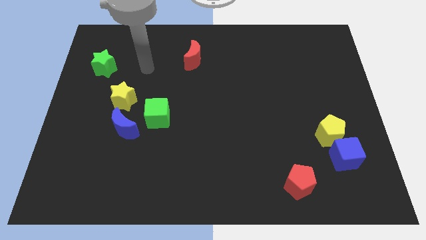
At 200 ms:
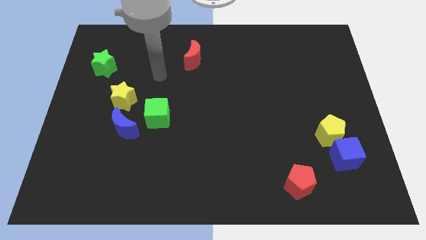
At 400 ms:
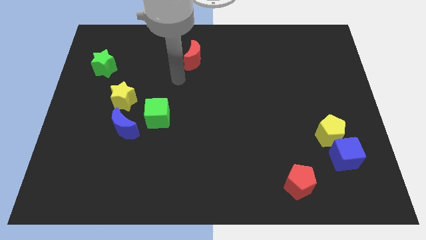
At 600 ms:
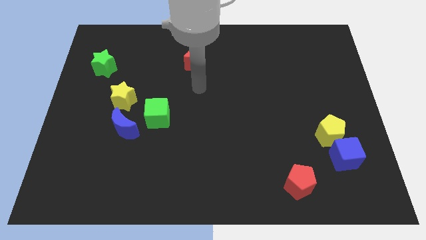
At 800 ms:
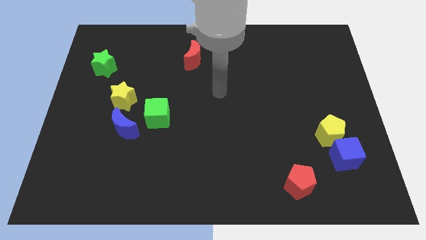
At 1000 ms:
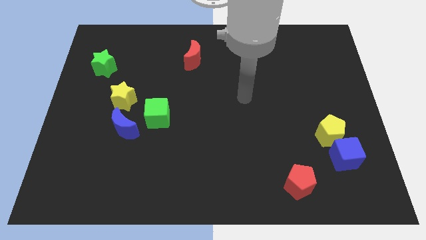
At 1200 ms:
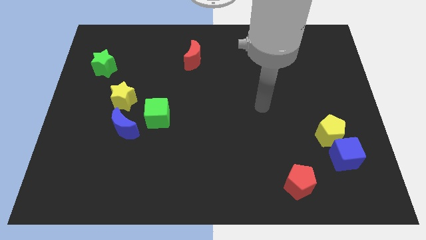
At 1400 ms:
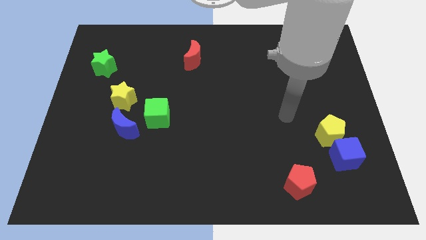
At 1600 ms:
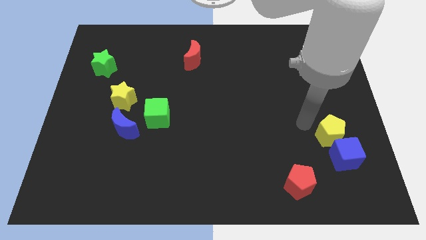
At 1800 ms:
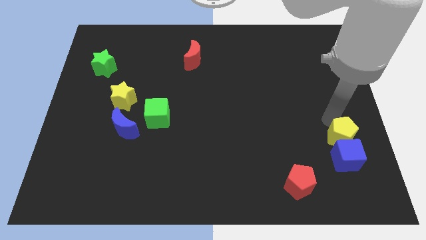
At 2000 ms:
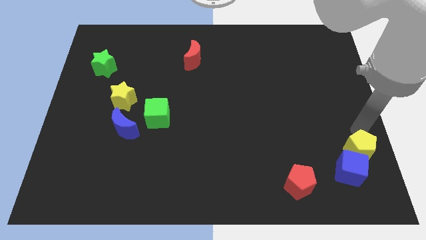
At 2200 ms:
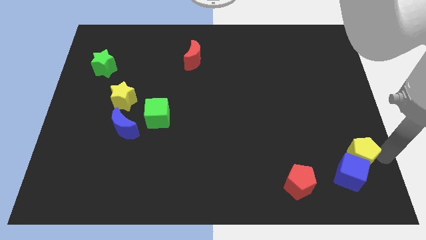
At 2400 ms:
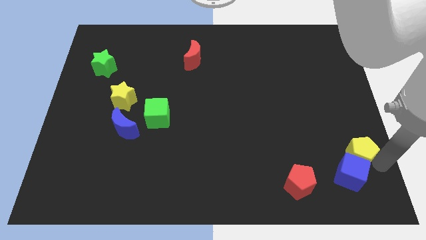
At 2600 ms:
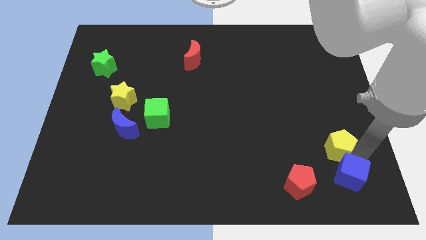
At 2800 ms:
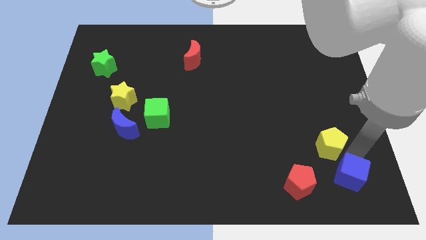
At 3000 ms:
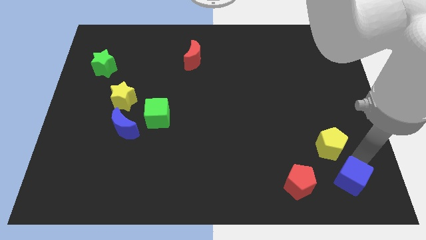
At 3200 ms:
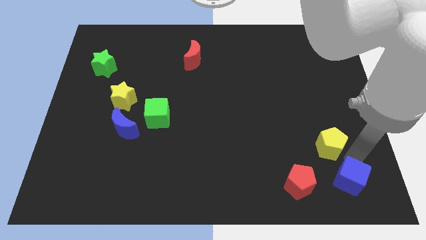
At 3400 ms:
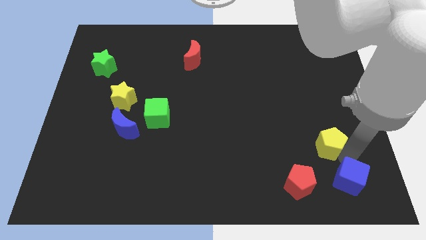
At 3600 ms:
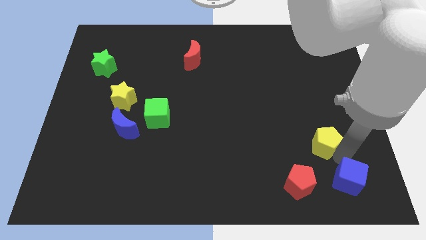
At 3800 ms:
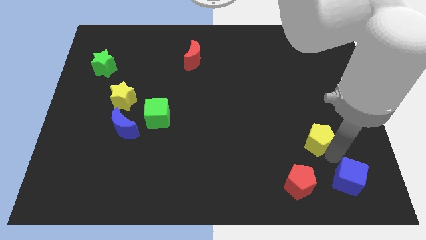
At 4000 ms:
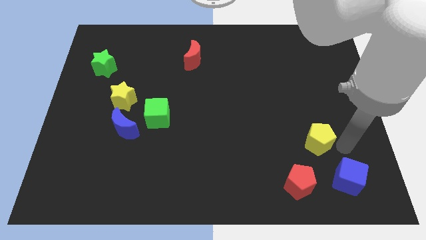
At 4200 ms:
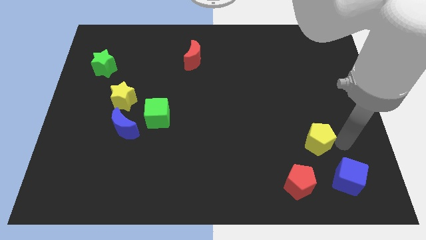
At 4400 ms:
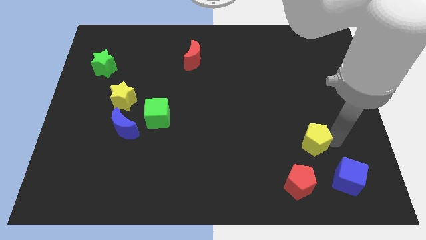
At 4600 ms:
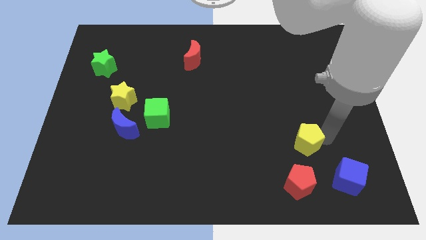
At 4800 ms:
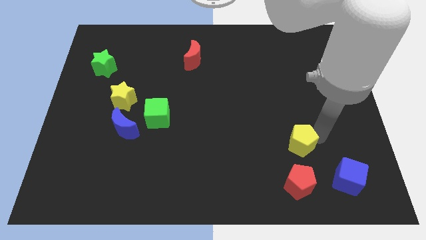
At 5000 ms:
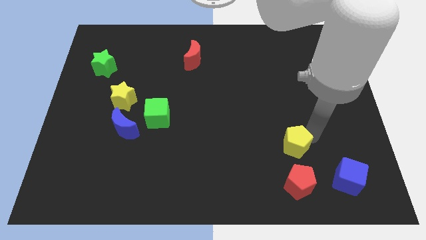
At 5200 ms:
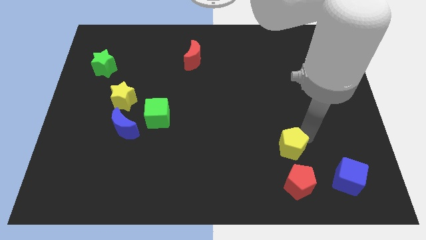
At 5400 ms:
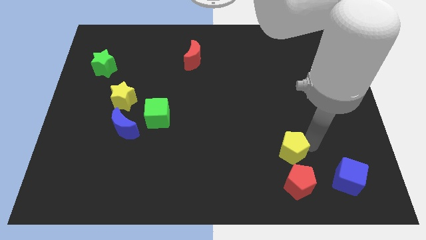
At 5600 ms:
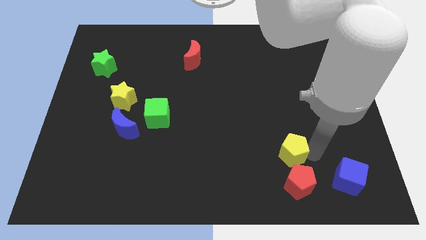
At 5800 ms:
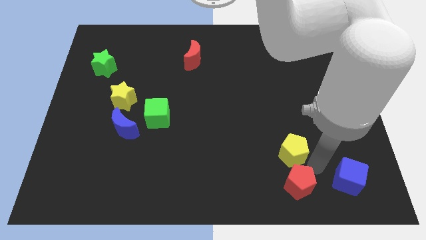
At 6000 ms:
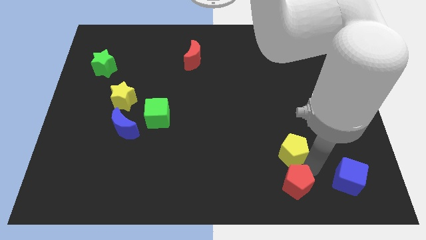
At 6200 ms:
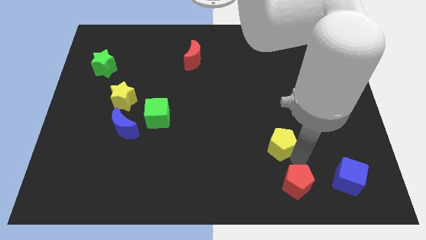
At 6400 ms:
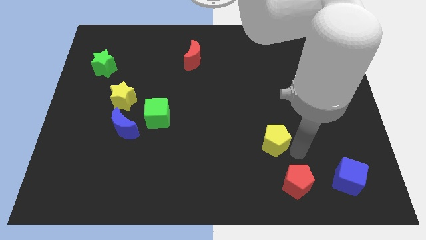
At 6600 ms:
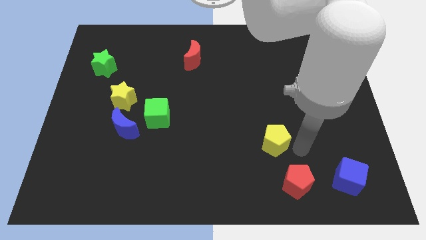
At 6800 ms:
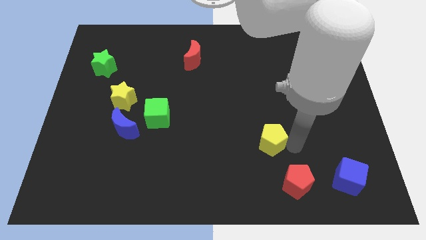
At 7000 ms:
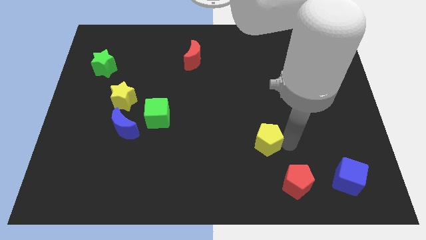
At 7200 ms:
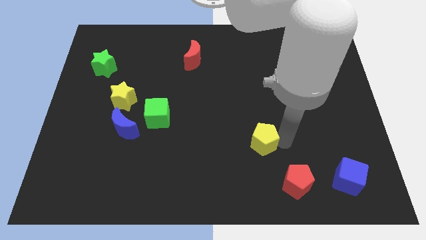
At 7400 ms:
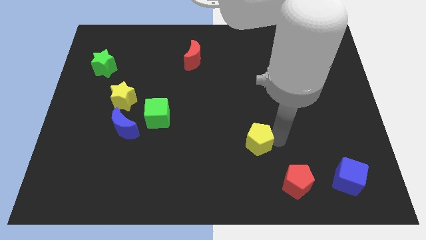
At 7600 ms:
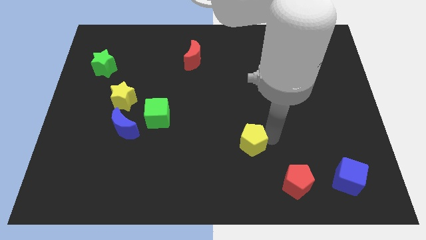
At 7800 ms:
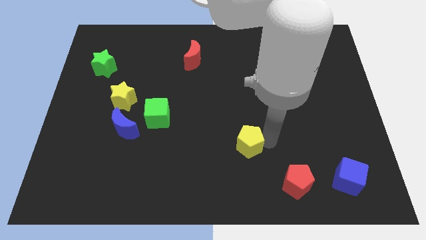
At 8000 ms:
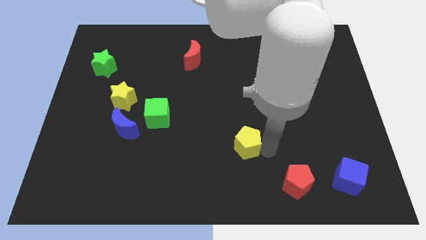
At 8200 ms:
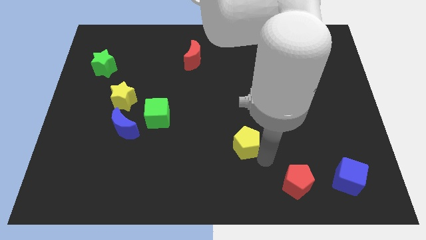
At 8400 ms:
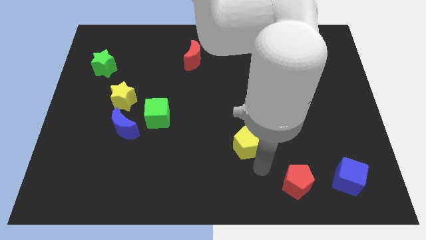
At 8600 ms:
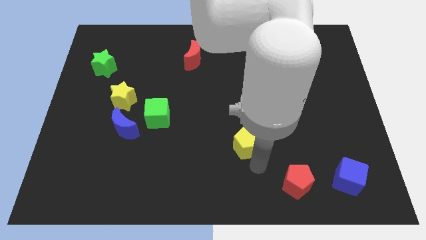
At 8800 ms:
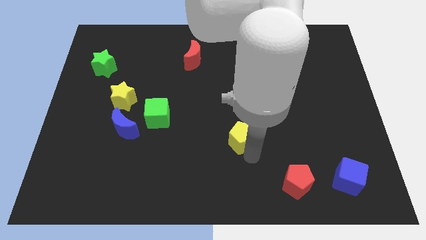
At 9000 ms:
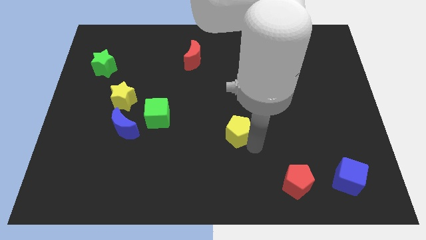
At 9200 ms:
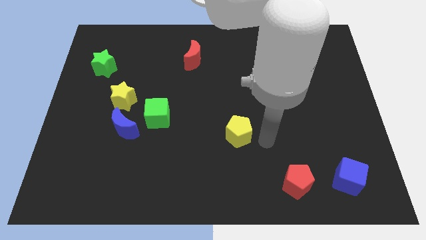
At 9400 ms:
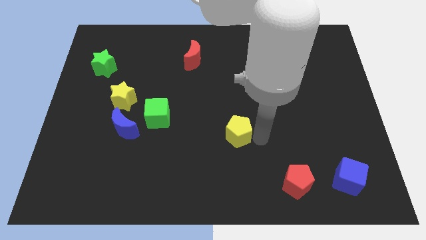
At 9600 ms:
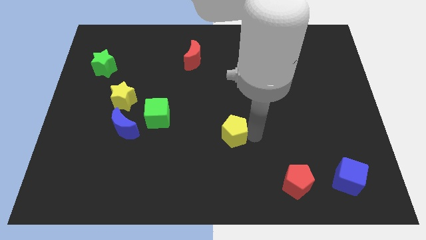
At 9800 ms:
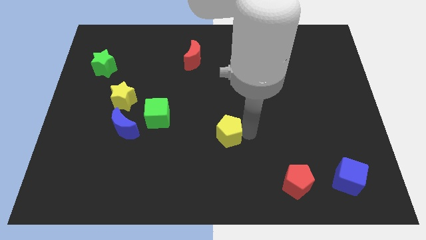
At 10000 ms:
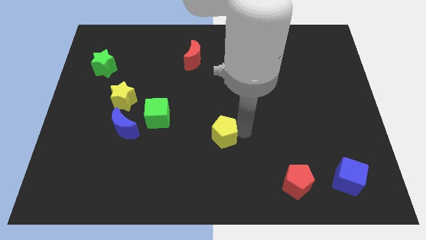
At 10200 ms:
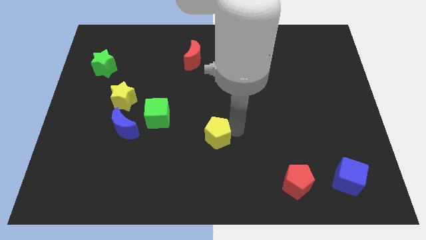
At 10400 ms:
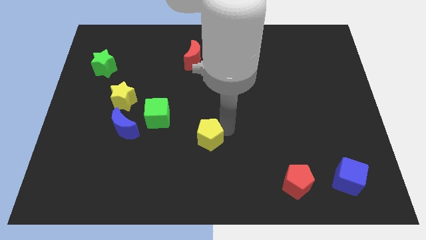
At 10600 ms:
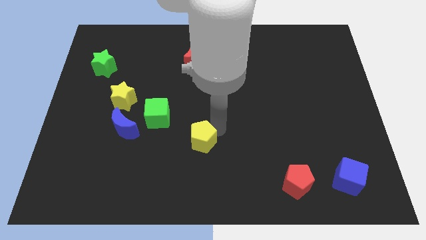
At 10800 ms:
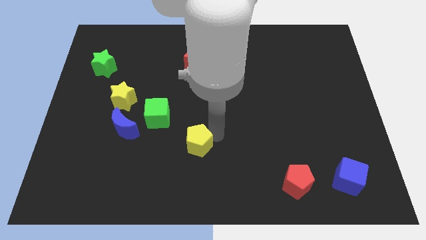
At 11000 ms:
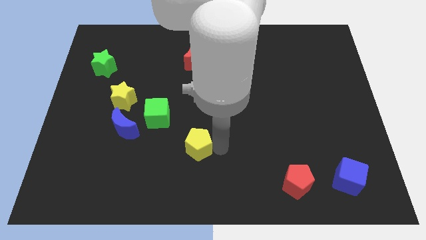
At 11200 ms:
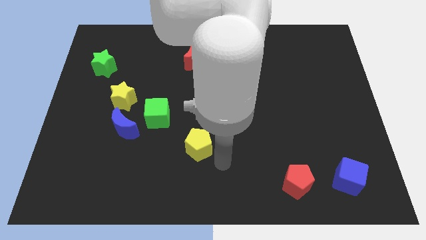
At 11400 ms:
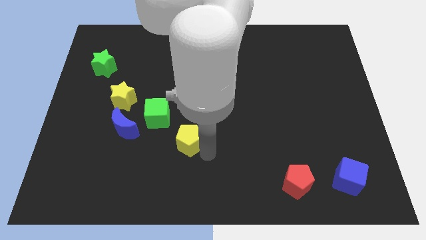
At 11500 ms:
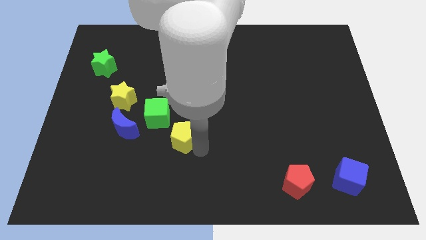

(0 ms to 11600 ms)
slide the yellow pentagon to the right side of the blue moon

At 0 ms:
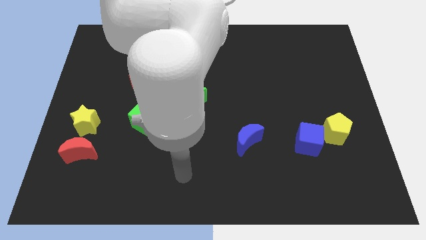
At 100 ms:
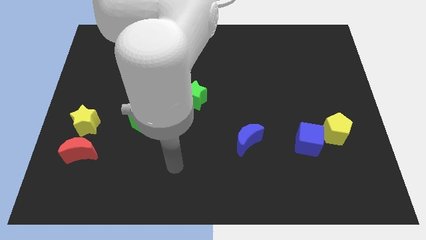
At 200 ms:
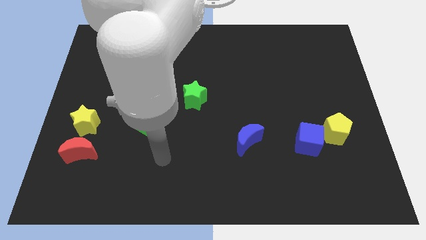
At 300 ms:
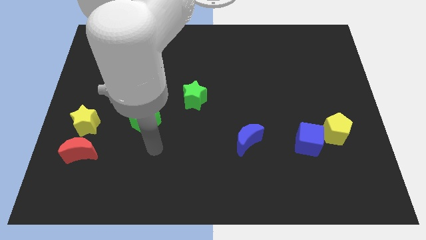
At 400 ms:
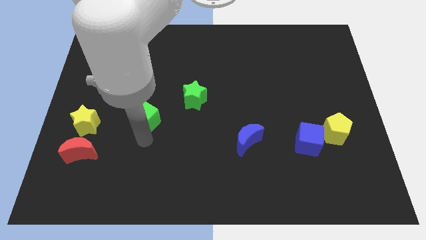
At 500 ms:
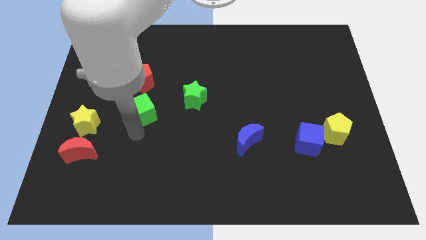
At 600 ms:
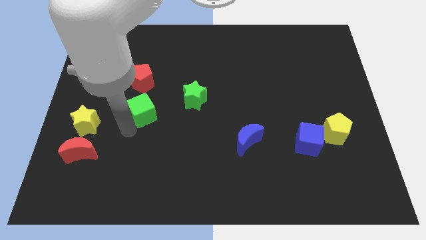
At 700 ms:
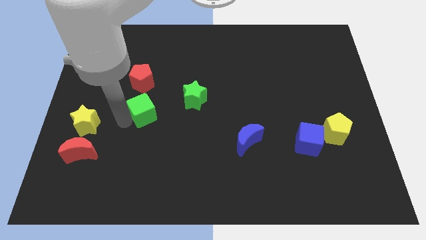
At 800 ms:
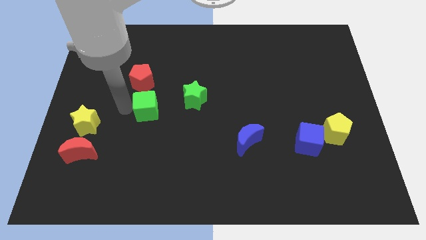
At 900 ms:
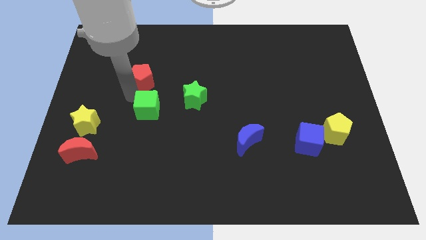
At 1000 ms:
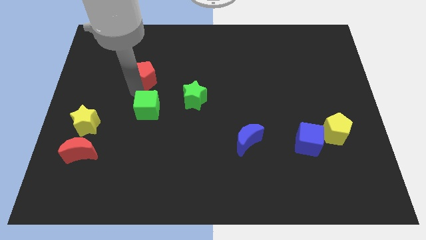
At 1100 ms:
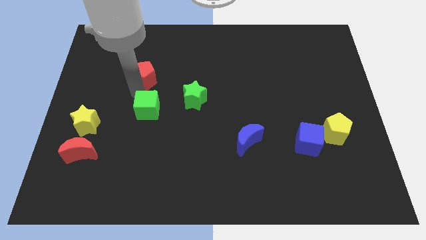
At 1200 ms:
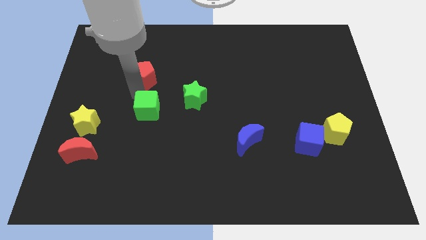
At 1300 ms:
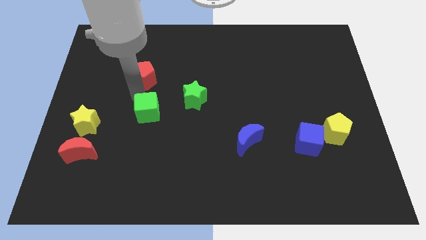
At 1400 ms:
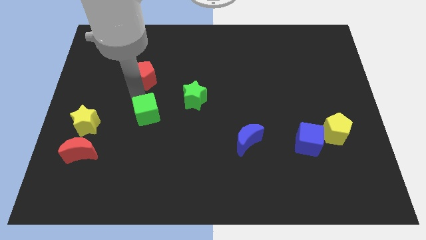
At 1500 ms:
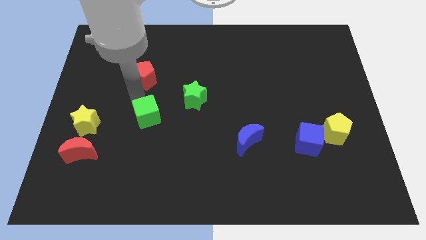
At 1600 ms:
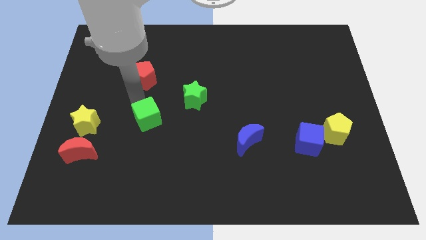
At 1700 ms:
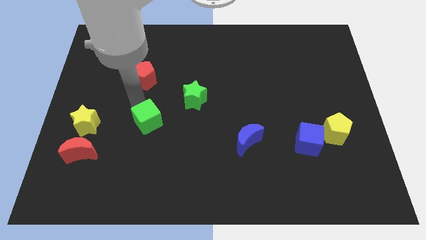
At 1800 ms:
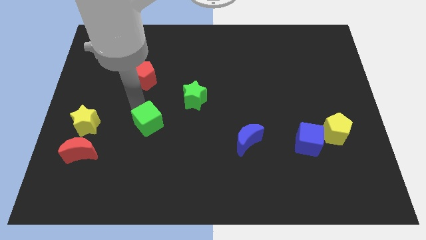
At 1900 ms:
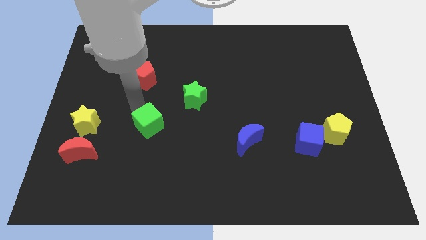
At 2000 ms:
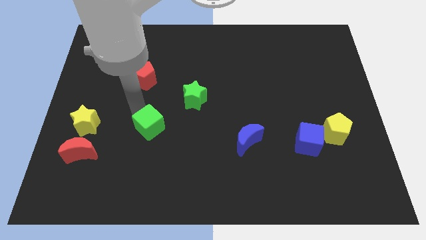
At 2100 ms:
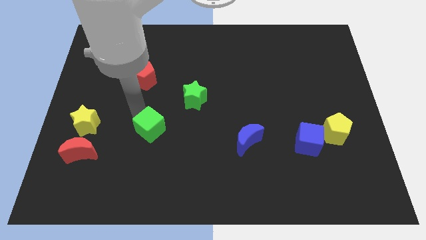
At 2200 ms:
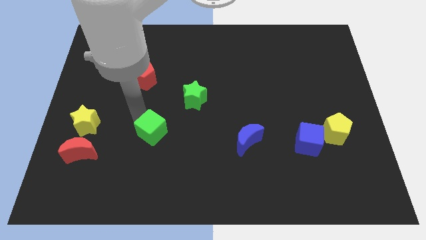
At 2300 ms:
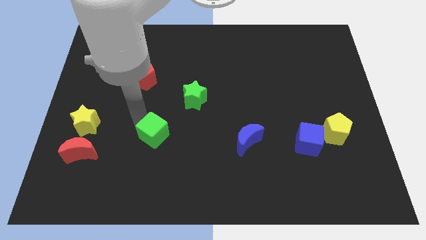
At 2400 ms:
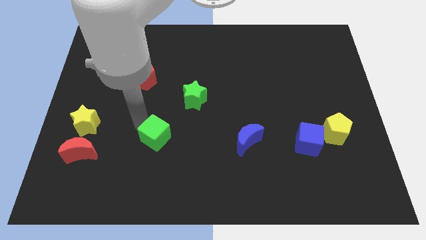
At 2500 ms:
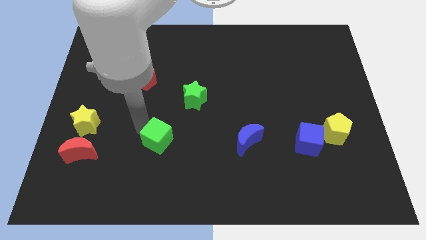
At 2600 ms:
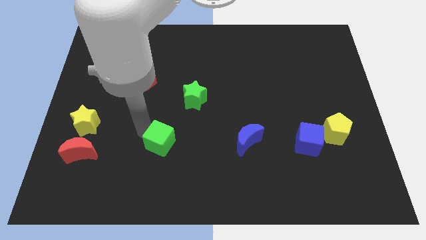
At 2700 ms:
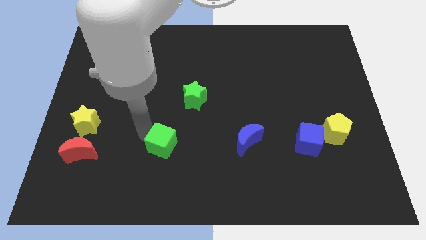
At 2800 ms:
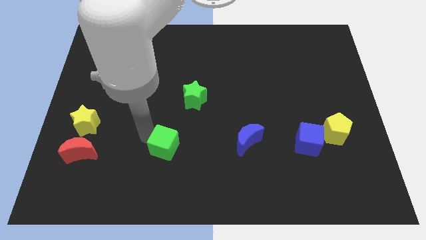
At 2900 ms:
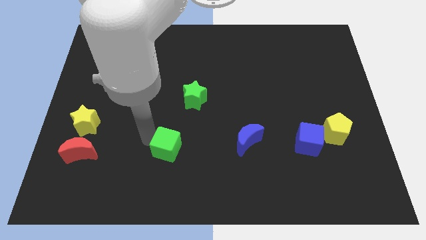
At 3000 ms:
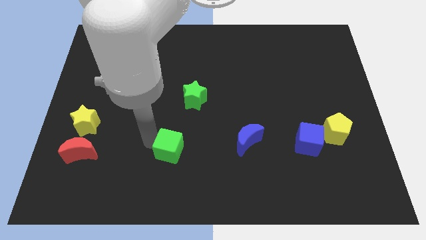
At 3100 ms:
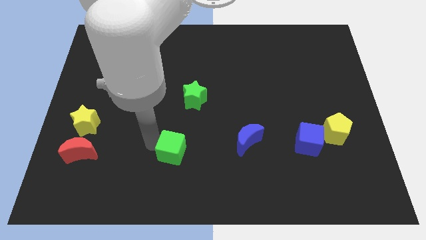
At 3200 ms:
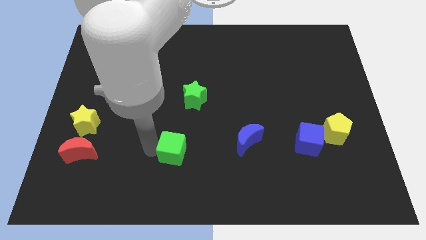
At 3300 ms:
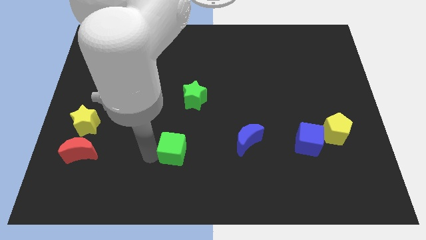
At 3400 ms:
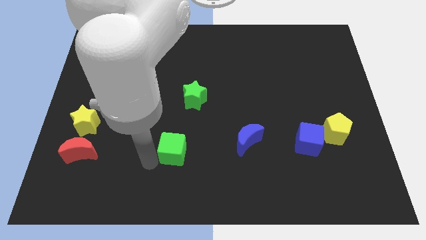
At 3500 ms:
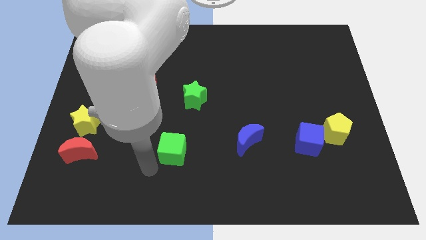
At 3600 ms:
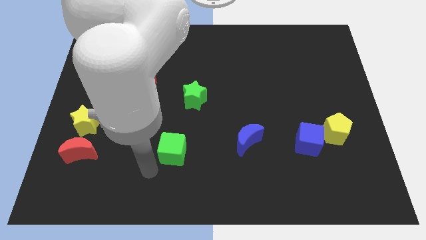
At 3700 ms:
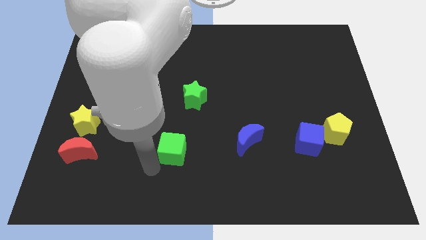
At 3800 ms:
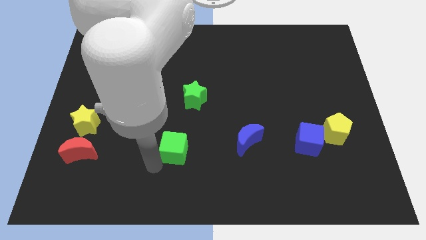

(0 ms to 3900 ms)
slide the green cube below the green star
